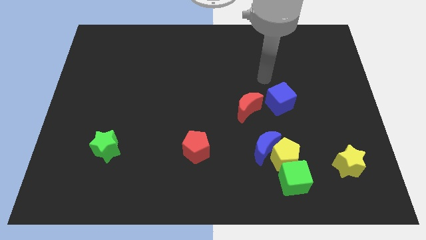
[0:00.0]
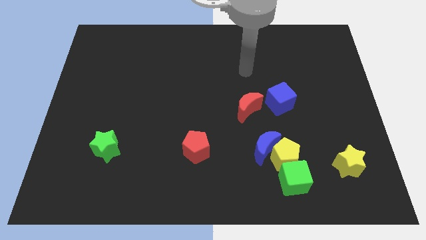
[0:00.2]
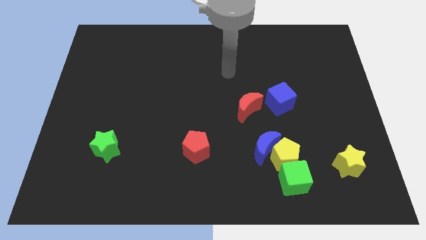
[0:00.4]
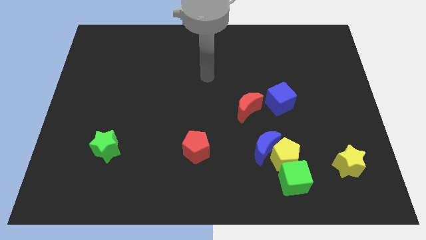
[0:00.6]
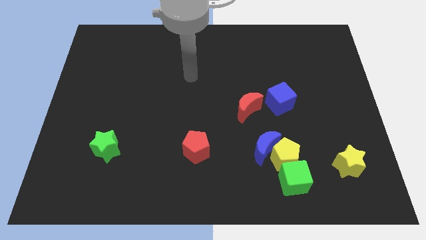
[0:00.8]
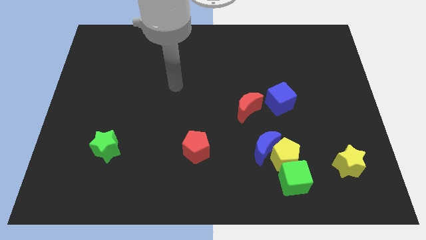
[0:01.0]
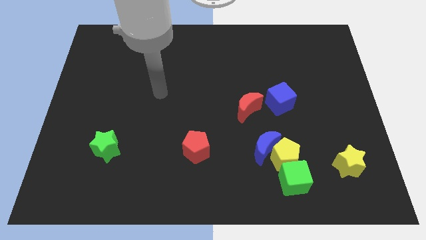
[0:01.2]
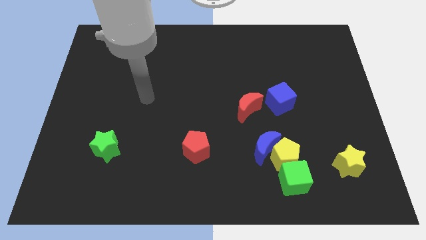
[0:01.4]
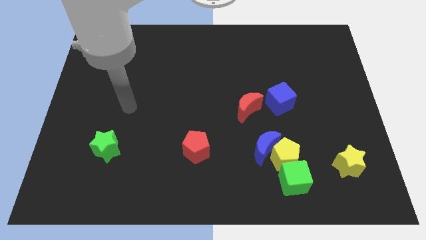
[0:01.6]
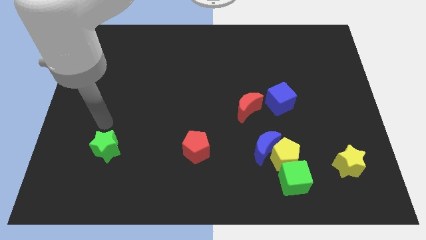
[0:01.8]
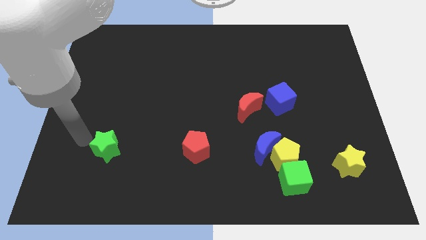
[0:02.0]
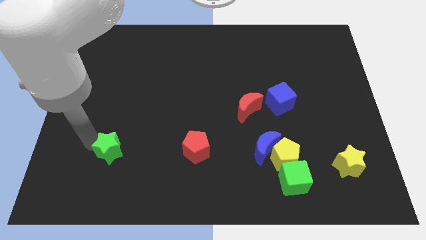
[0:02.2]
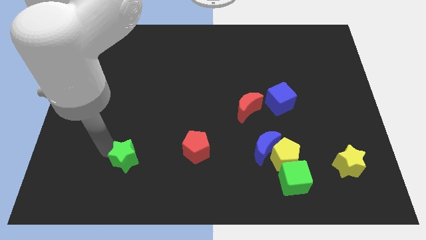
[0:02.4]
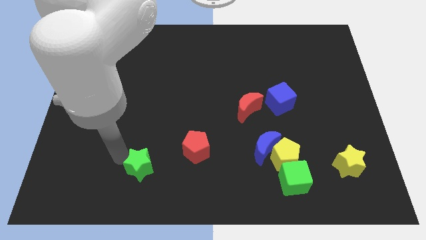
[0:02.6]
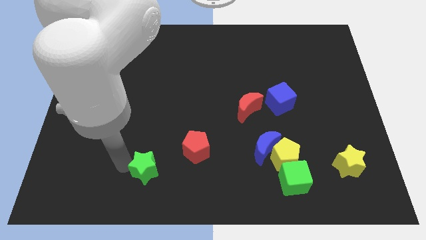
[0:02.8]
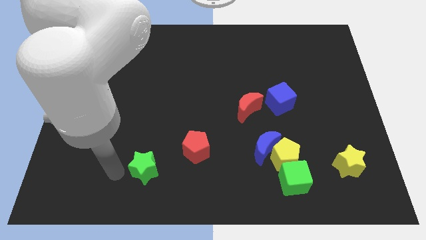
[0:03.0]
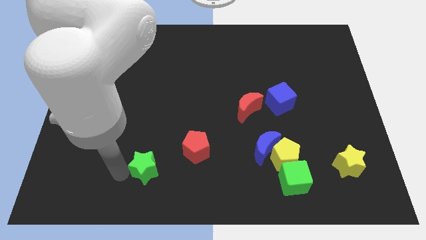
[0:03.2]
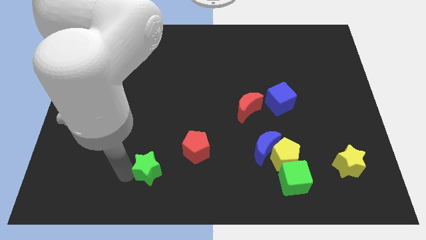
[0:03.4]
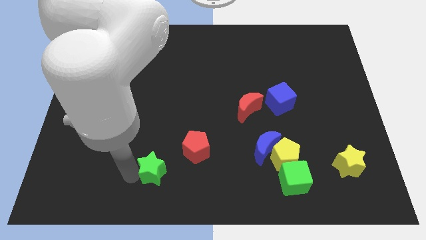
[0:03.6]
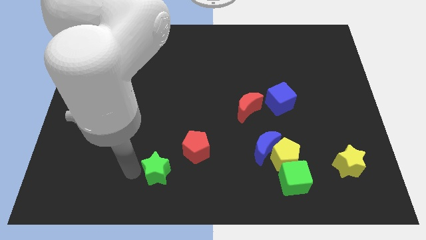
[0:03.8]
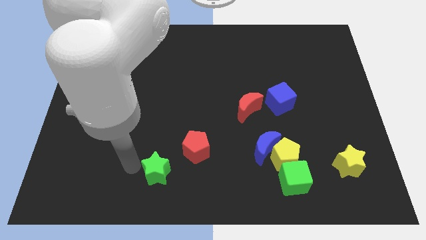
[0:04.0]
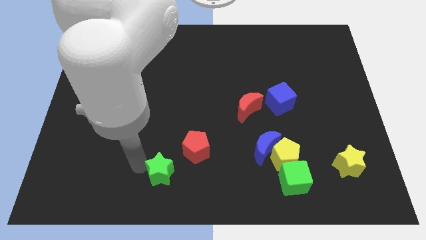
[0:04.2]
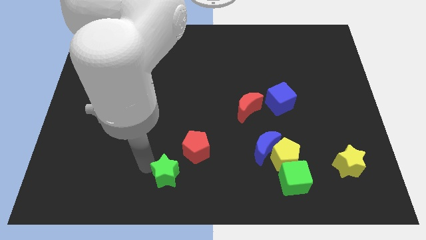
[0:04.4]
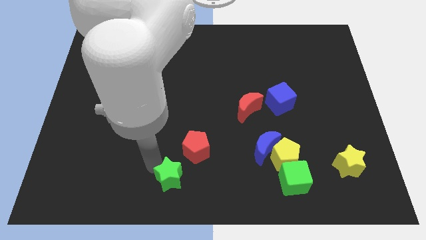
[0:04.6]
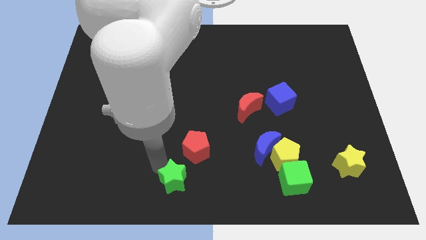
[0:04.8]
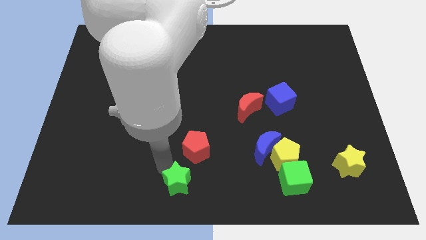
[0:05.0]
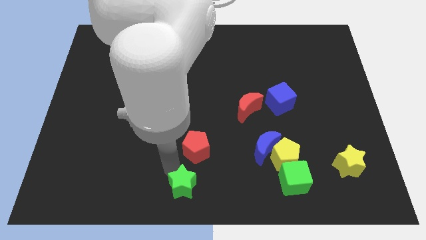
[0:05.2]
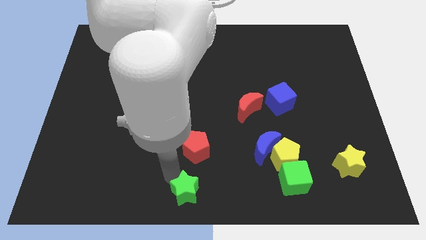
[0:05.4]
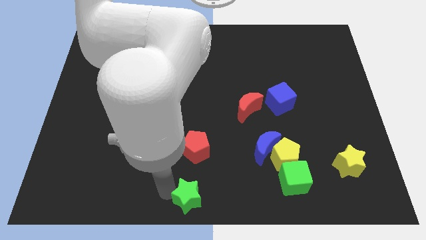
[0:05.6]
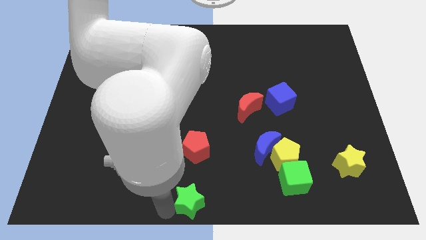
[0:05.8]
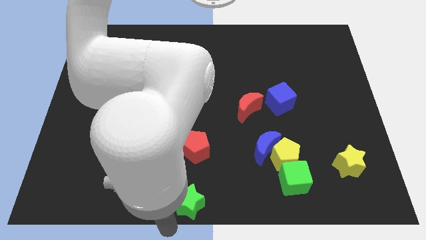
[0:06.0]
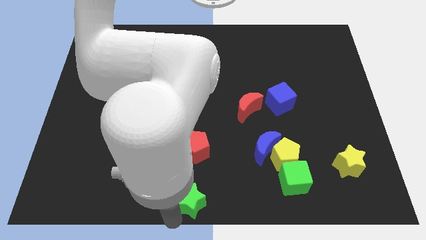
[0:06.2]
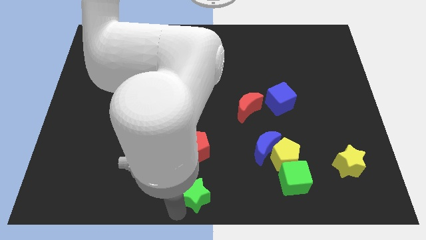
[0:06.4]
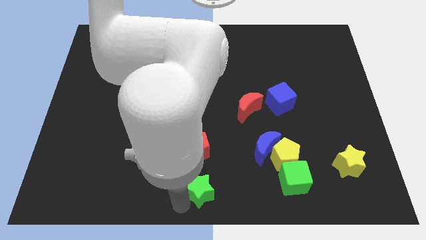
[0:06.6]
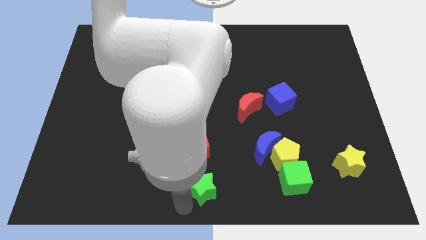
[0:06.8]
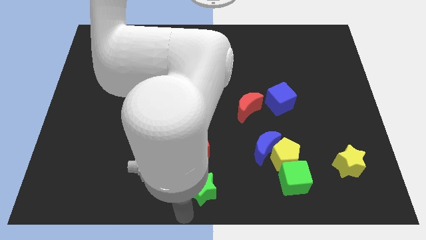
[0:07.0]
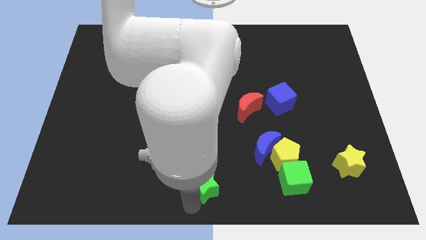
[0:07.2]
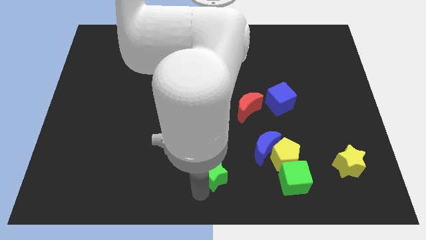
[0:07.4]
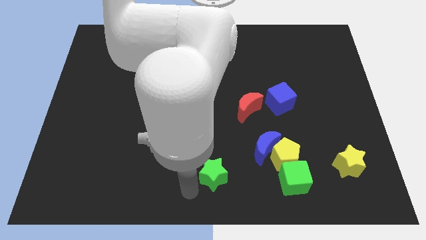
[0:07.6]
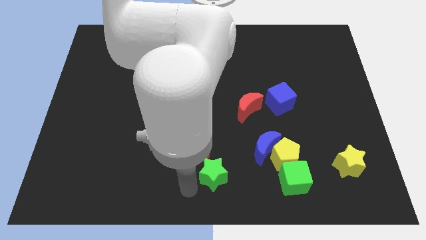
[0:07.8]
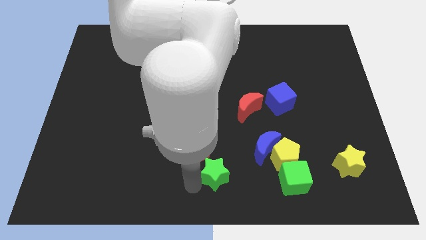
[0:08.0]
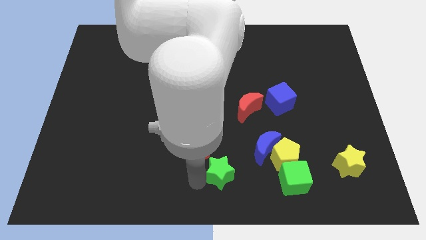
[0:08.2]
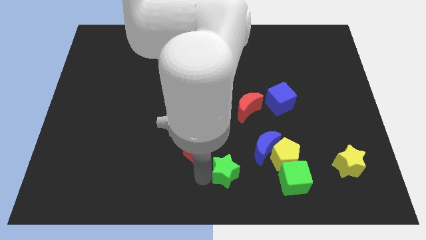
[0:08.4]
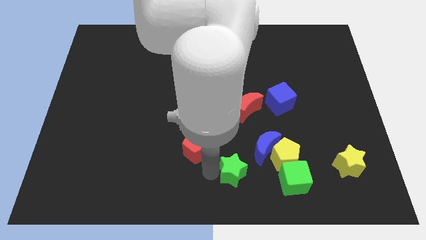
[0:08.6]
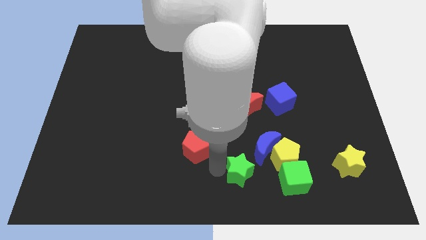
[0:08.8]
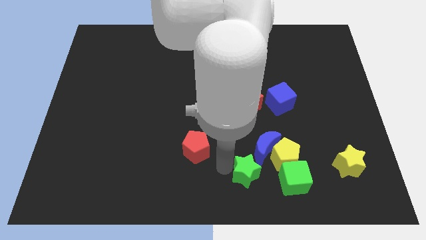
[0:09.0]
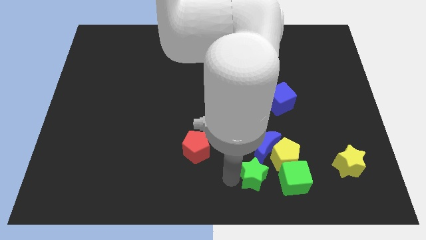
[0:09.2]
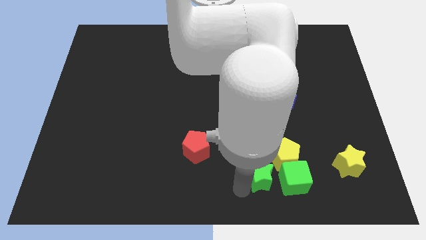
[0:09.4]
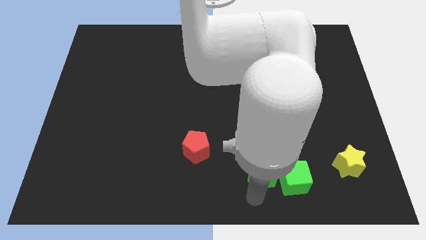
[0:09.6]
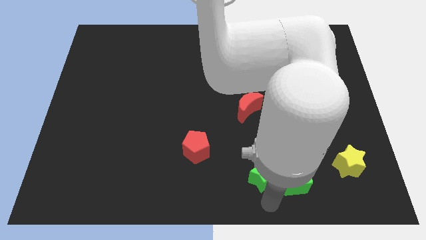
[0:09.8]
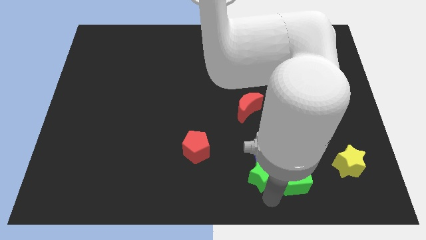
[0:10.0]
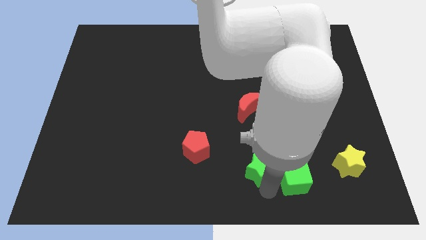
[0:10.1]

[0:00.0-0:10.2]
slide the green star below the red moon

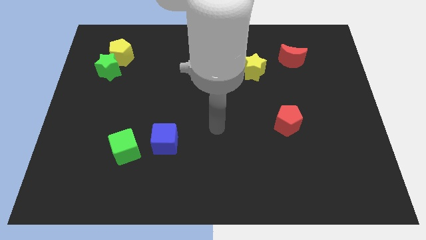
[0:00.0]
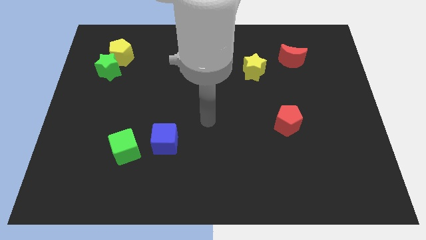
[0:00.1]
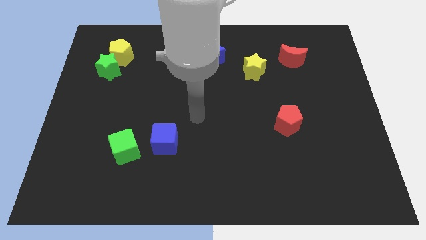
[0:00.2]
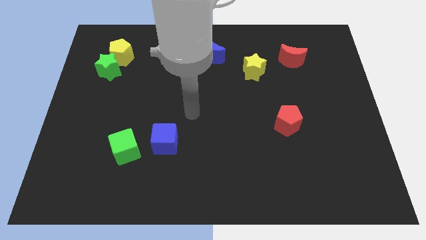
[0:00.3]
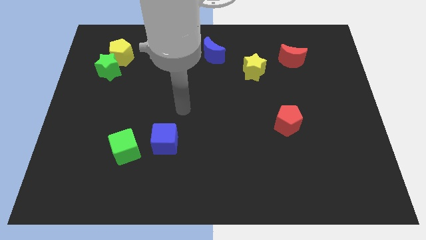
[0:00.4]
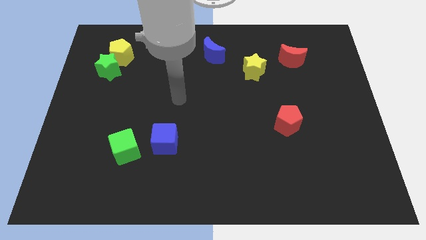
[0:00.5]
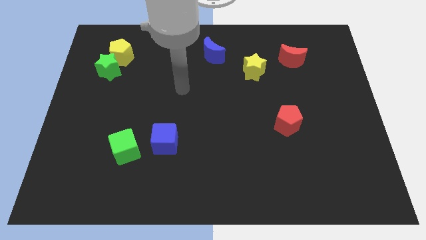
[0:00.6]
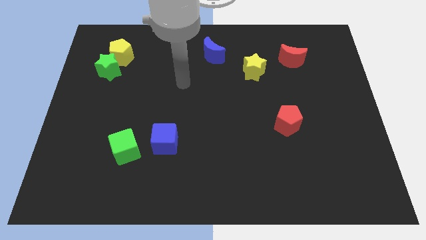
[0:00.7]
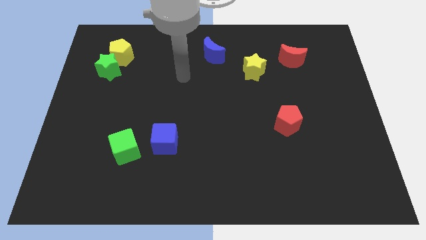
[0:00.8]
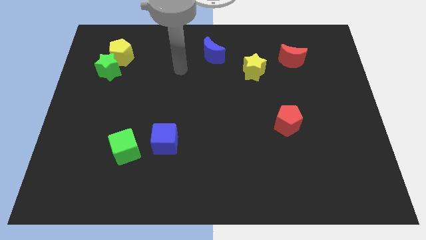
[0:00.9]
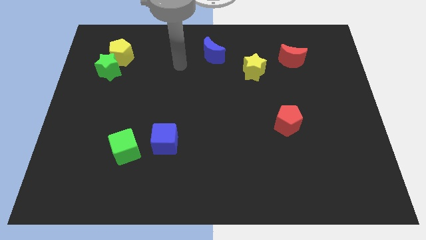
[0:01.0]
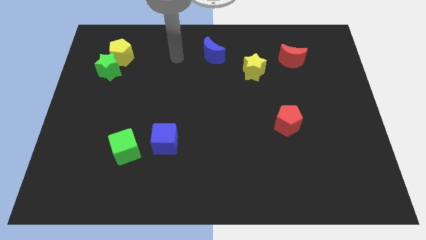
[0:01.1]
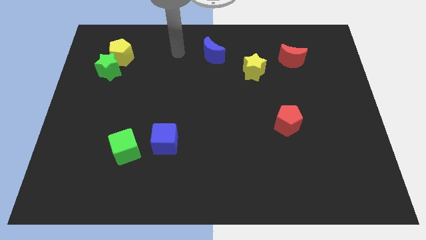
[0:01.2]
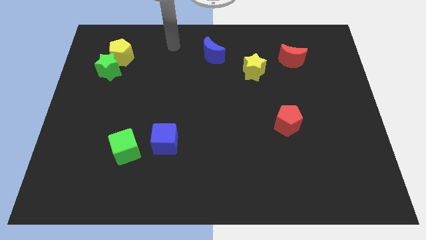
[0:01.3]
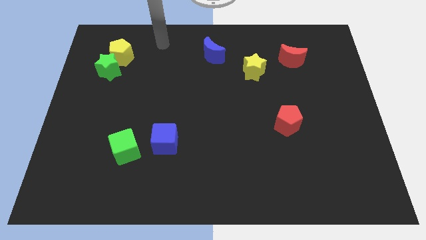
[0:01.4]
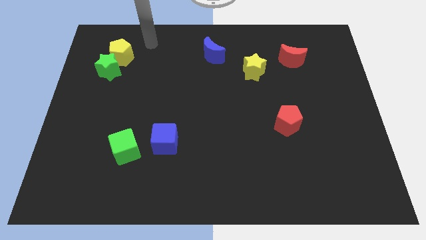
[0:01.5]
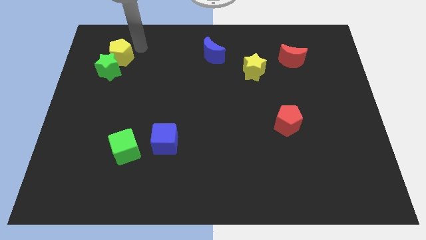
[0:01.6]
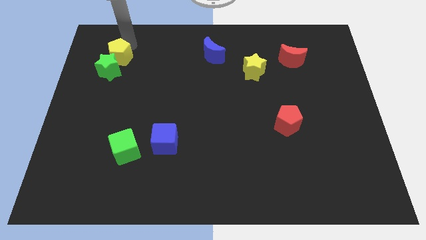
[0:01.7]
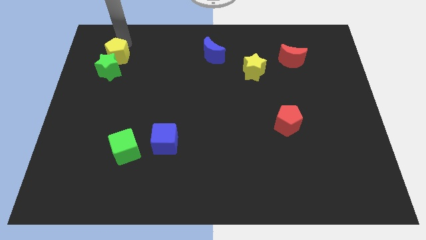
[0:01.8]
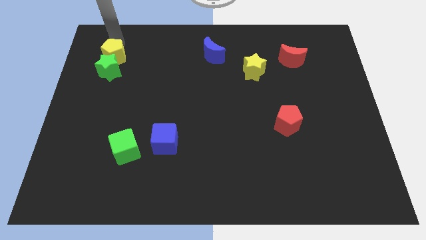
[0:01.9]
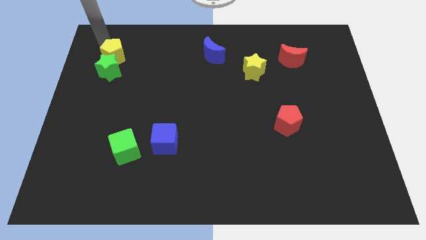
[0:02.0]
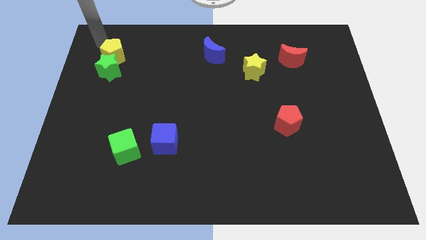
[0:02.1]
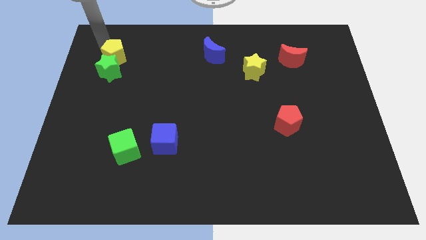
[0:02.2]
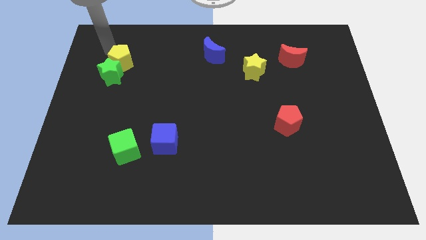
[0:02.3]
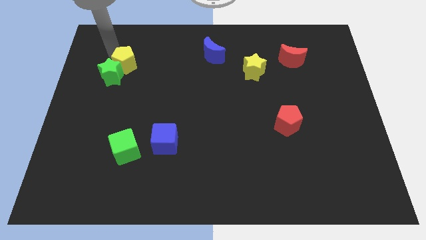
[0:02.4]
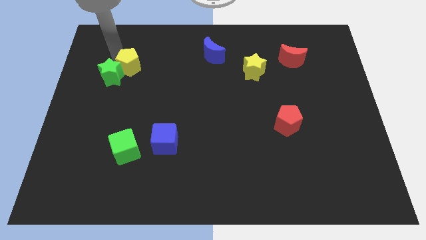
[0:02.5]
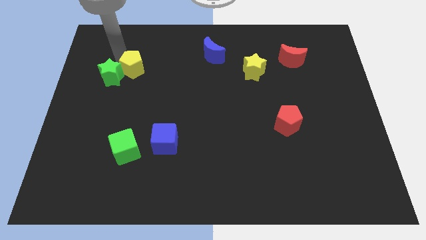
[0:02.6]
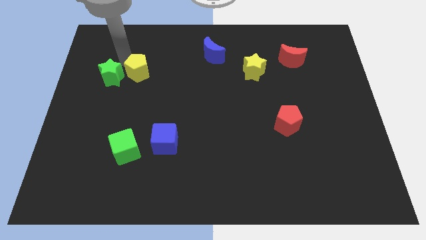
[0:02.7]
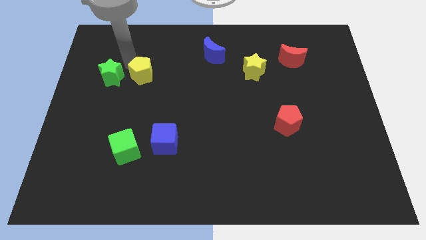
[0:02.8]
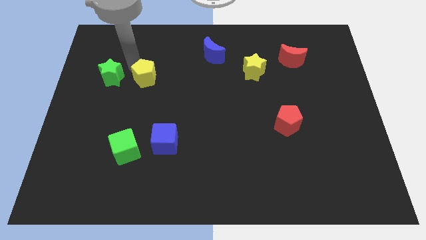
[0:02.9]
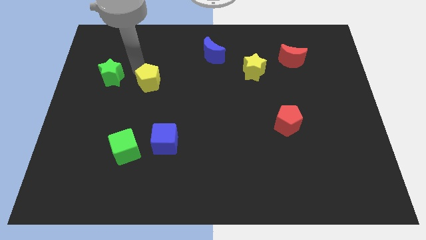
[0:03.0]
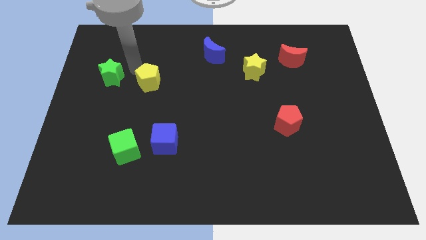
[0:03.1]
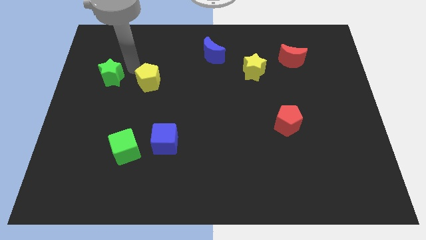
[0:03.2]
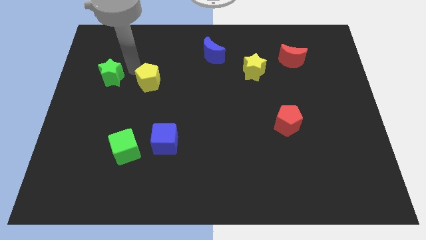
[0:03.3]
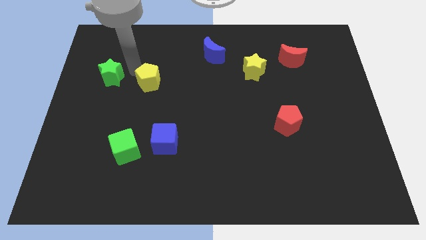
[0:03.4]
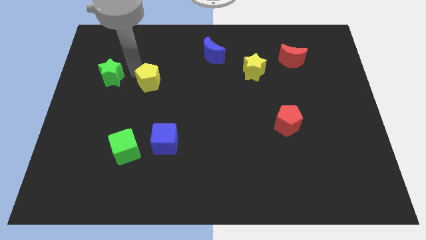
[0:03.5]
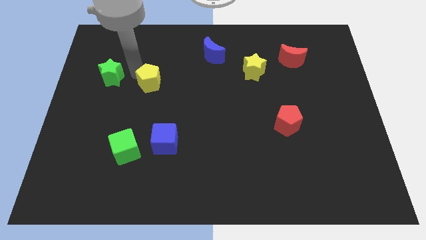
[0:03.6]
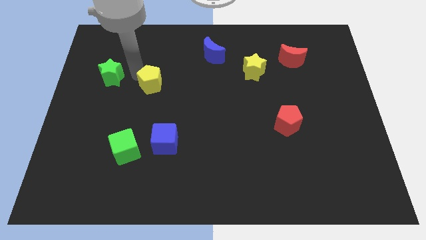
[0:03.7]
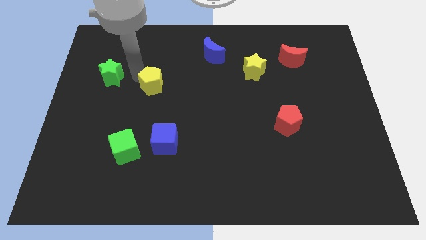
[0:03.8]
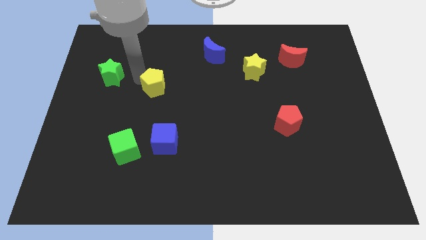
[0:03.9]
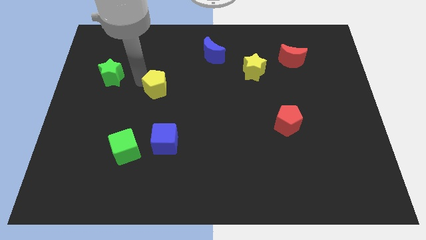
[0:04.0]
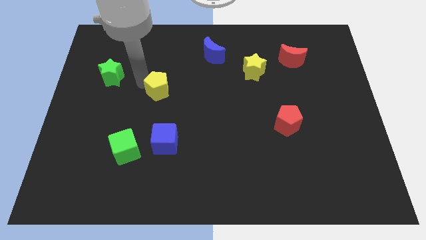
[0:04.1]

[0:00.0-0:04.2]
move the yellow pentagon to the top of the blue cube
